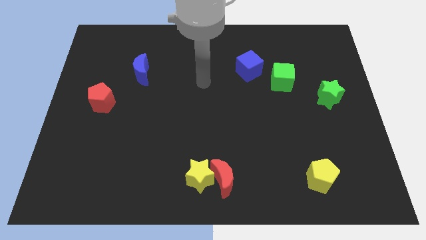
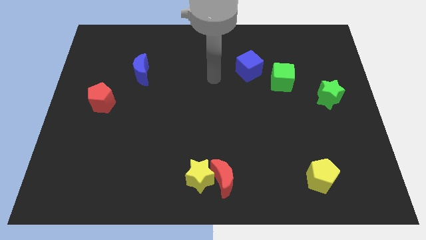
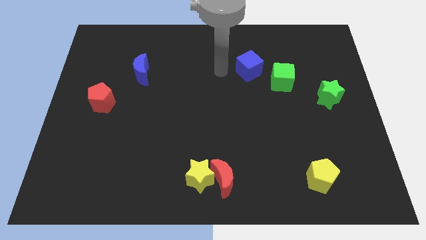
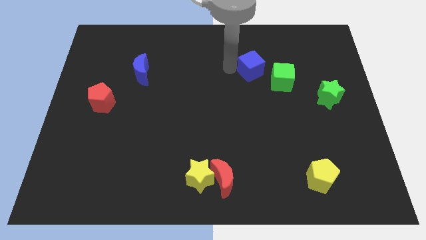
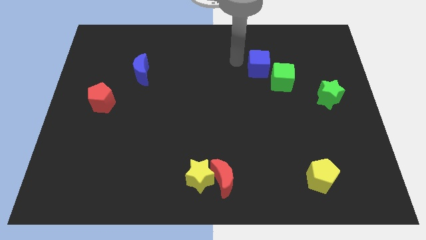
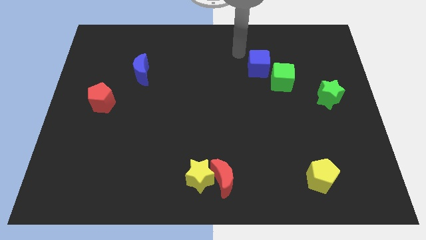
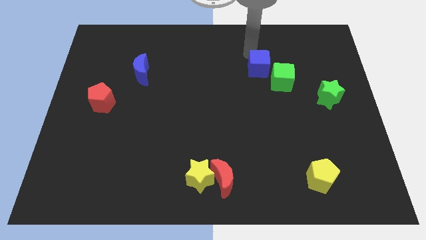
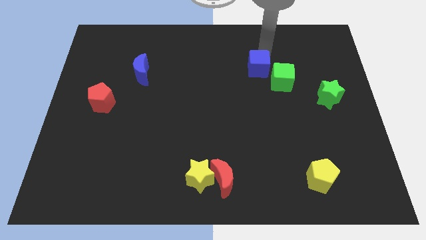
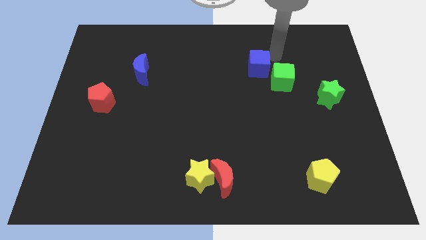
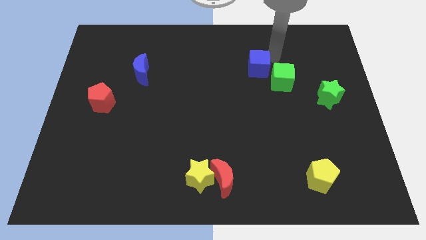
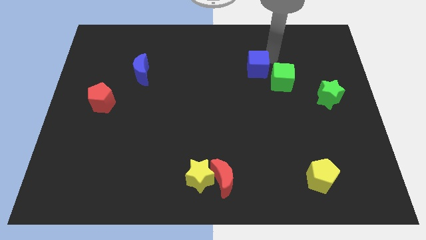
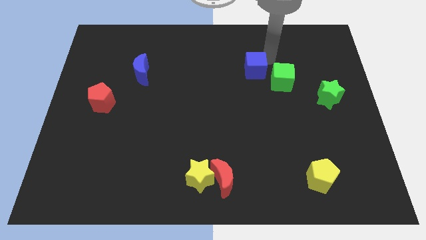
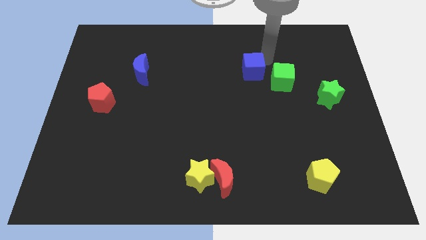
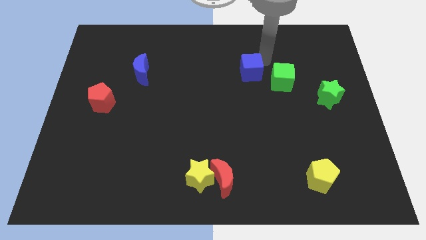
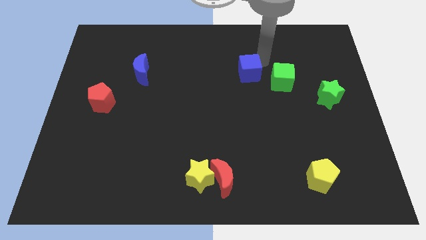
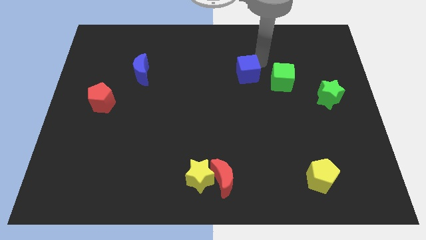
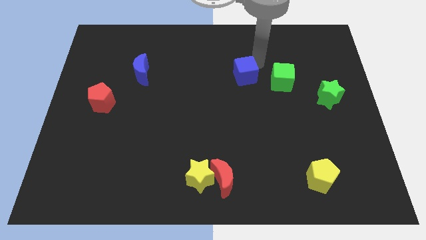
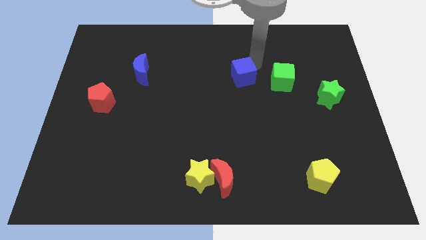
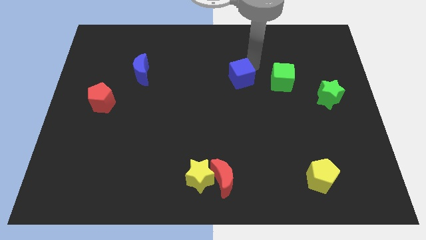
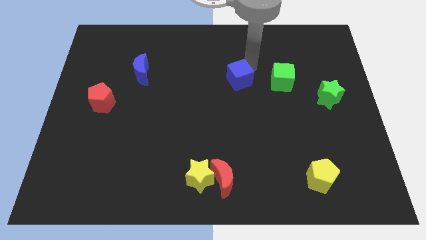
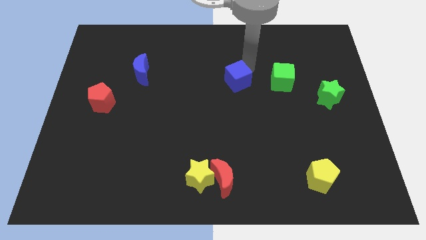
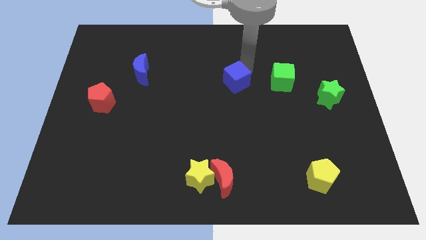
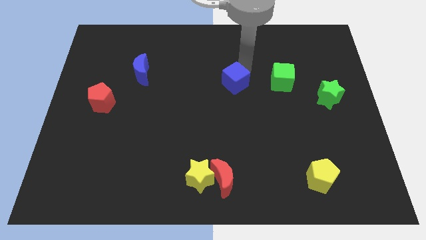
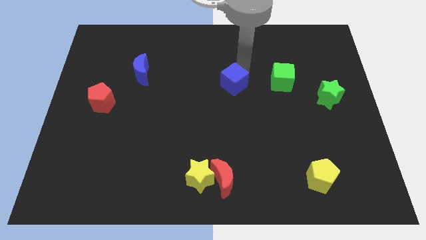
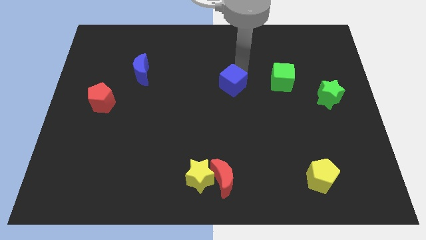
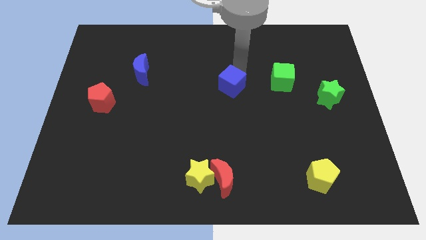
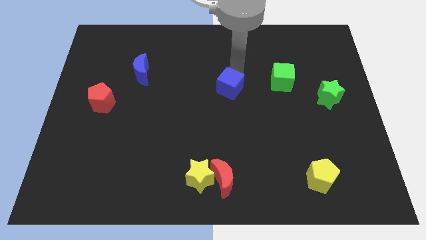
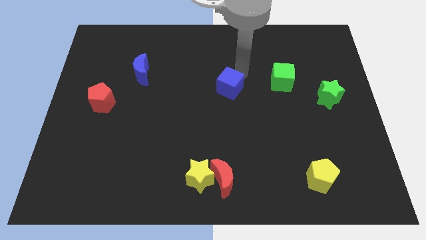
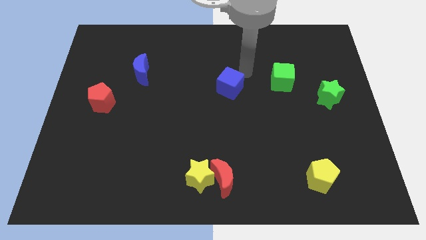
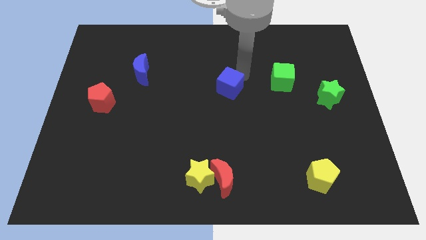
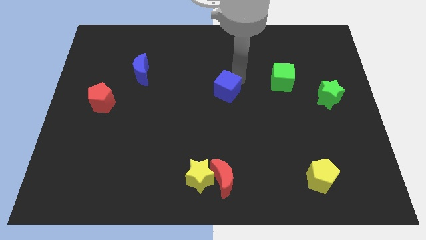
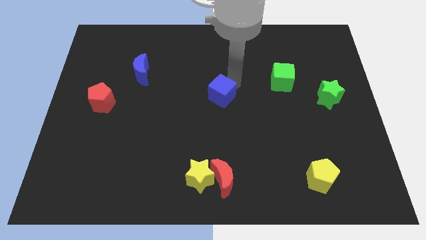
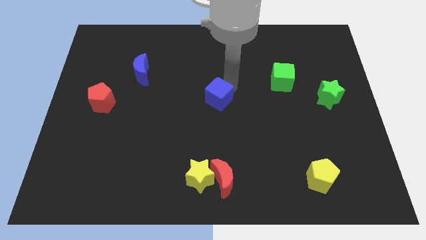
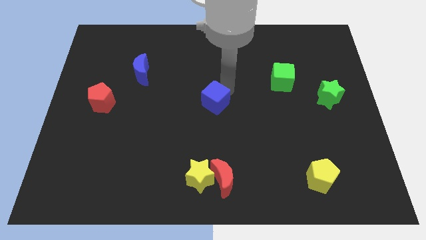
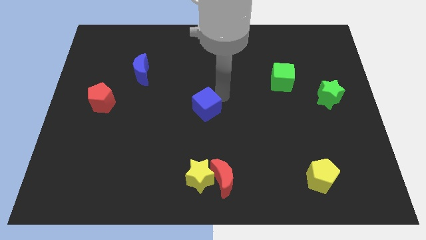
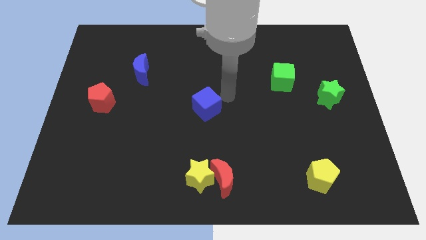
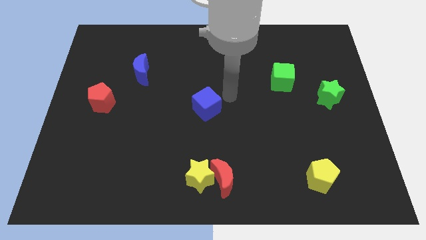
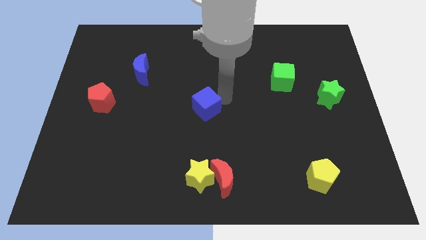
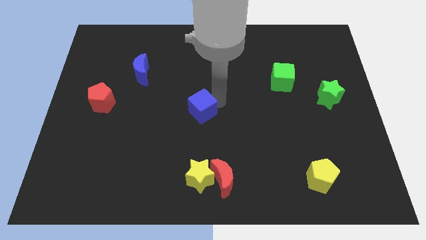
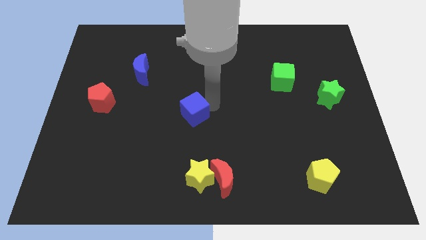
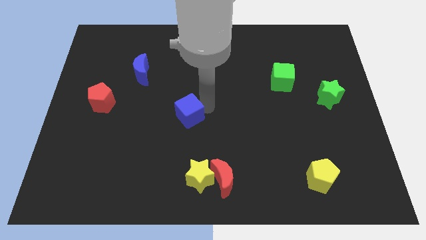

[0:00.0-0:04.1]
slide the blue cube downwards and left diagonally

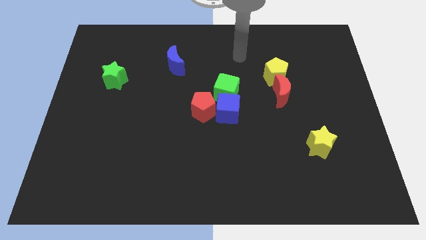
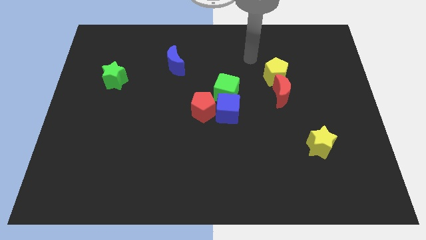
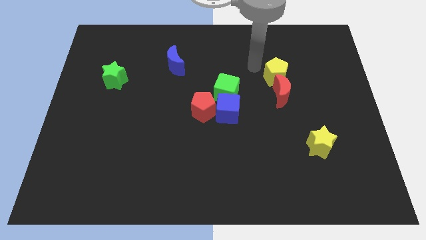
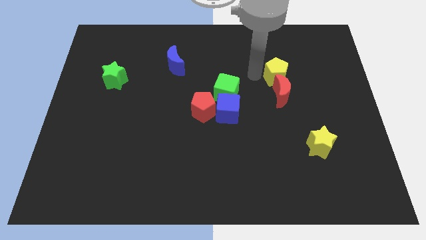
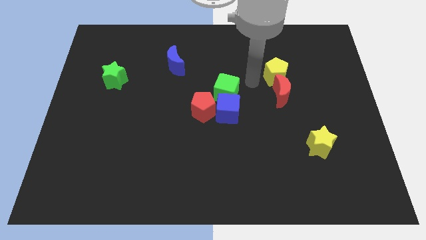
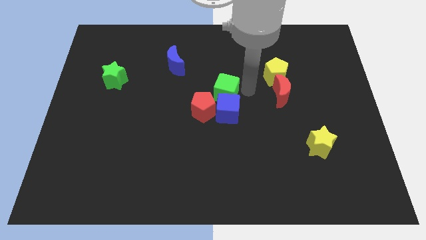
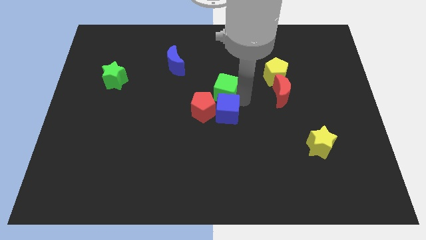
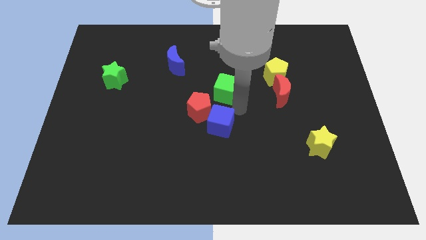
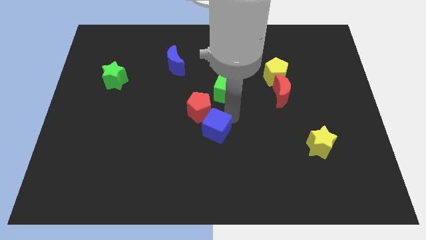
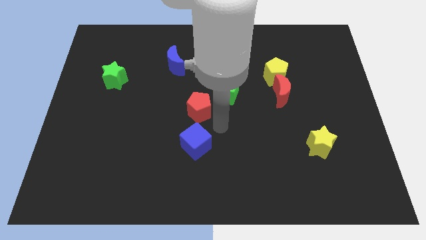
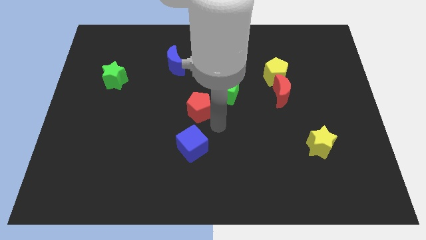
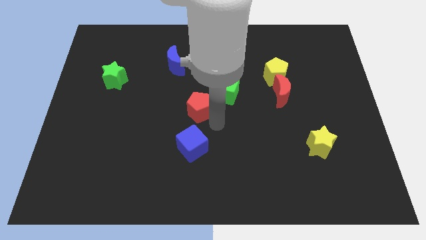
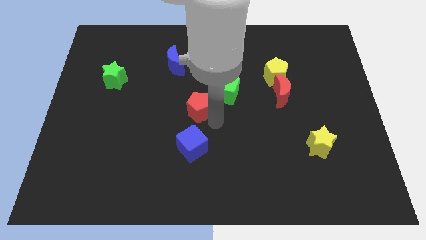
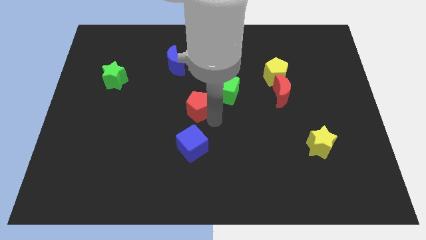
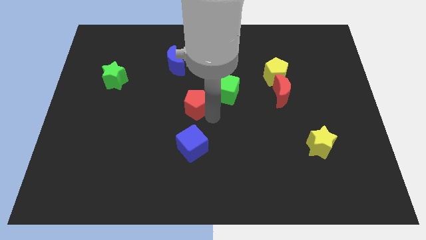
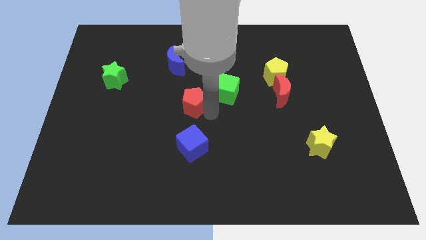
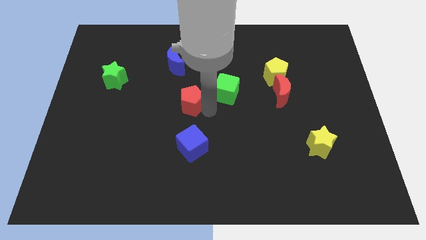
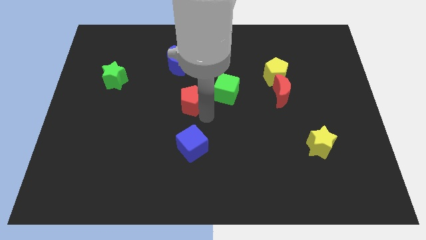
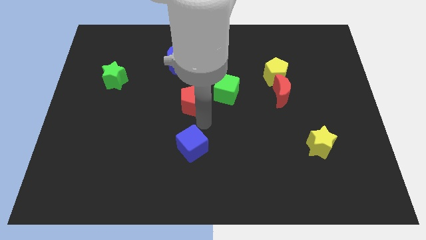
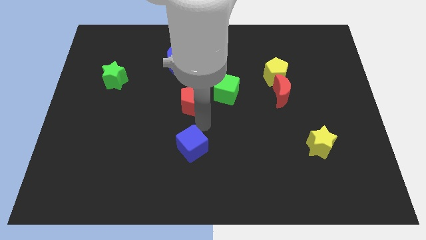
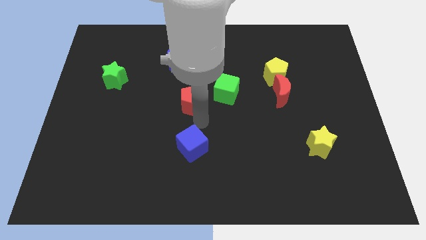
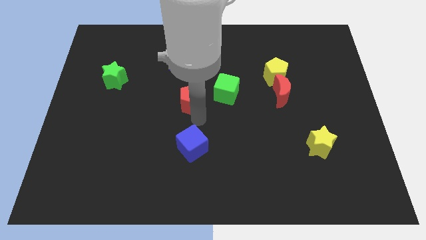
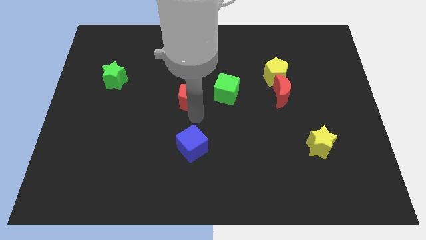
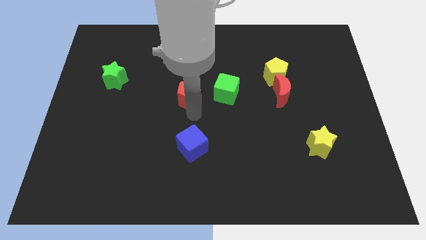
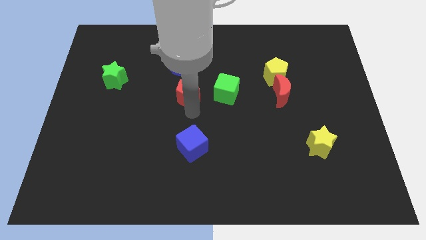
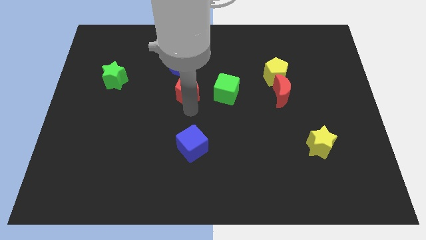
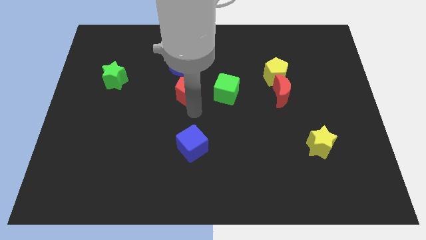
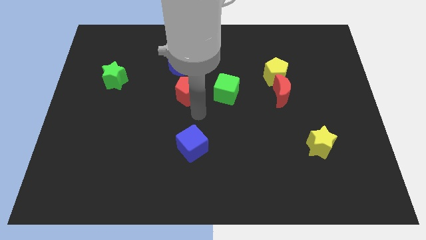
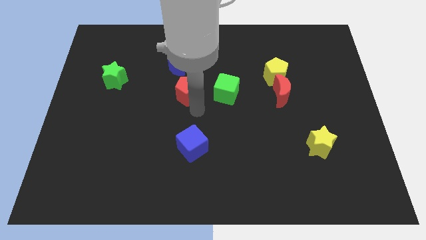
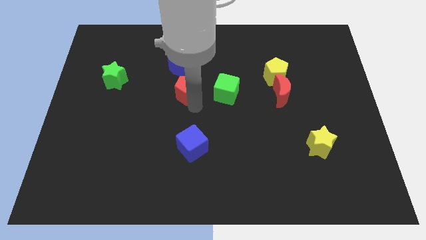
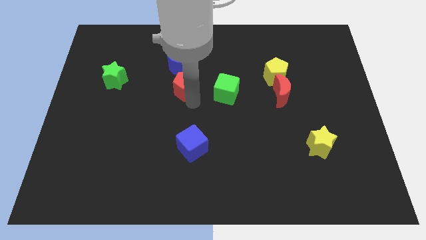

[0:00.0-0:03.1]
slightly push the red pentagon diagonally upwards and to the left

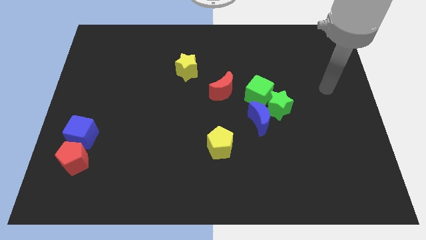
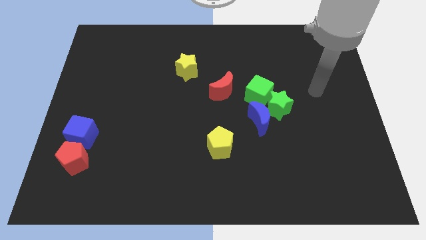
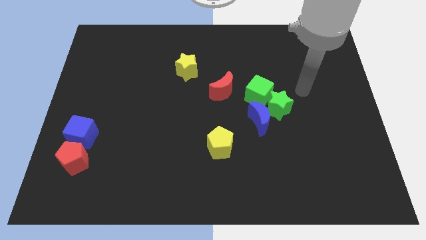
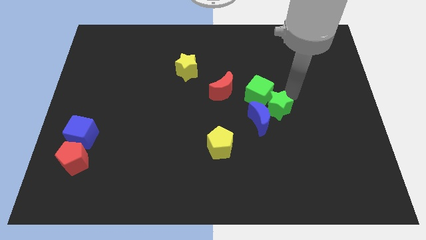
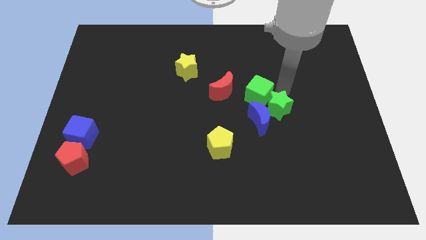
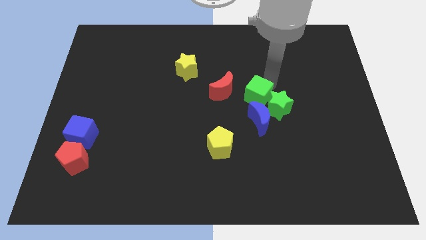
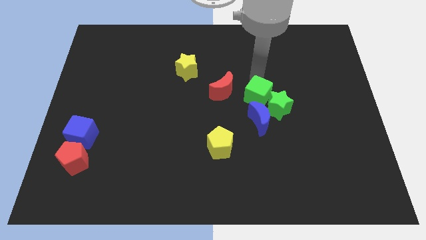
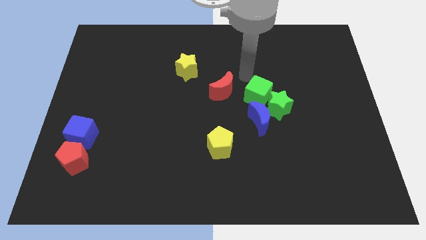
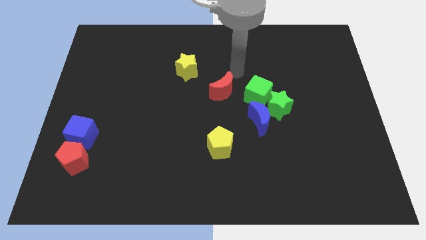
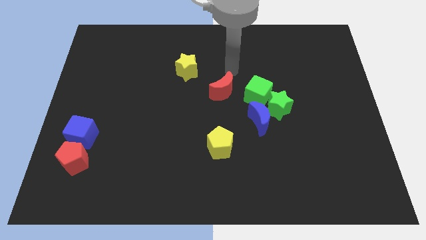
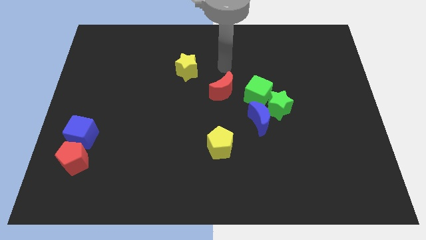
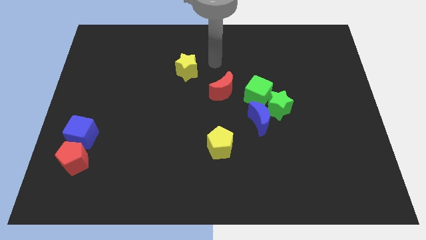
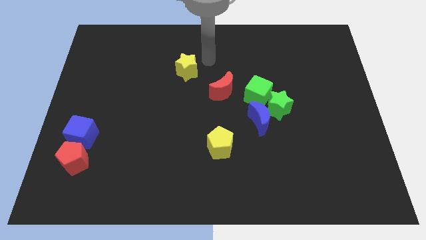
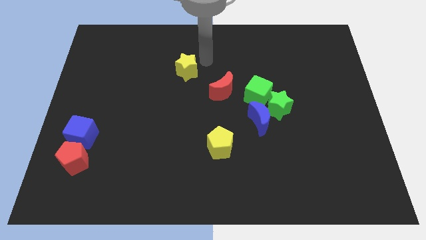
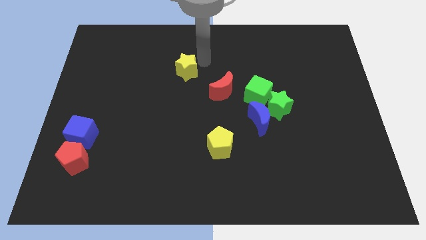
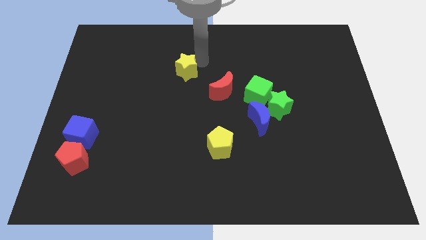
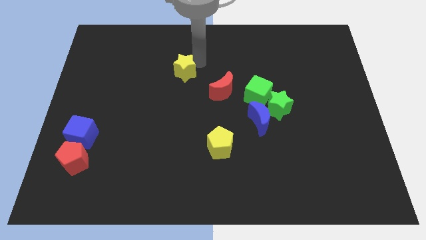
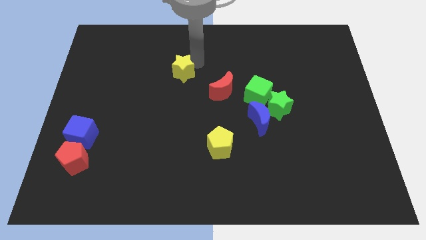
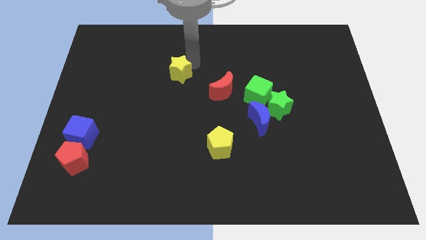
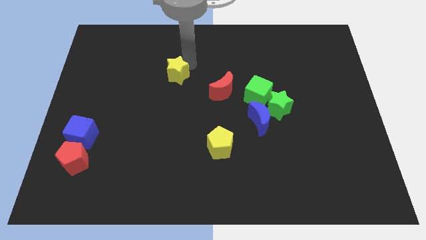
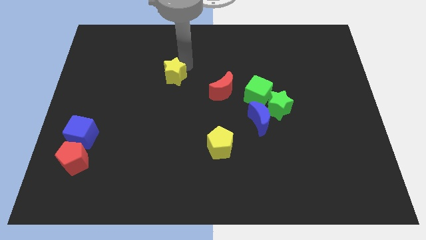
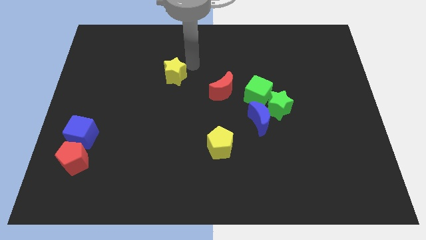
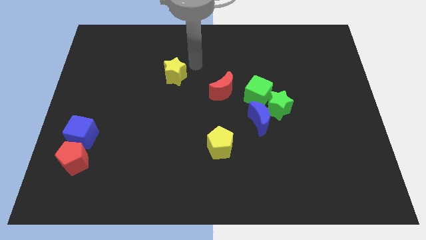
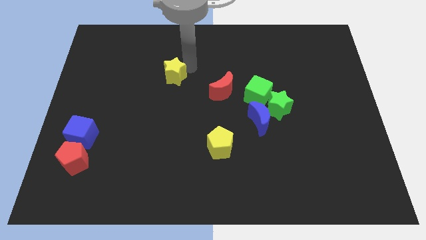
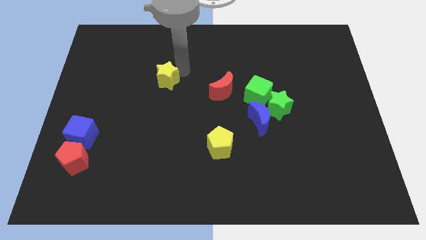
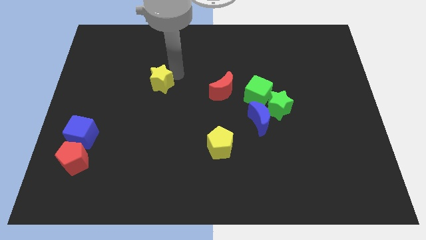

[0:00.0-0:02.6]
slide the yellow star down and to the left diagonally slightly
